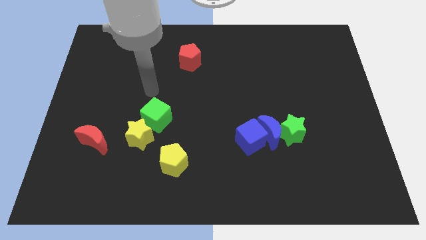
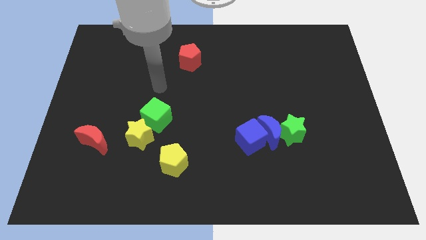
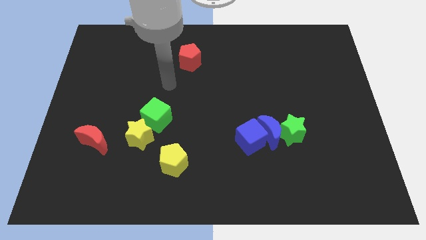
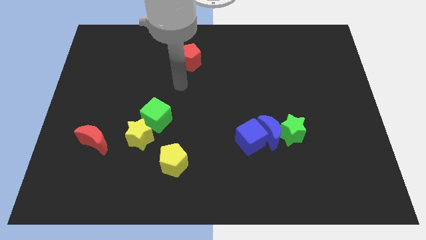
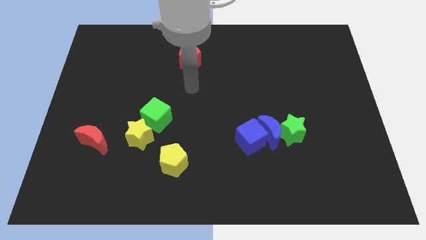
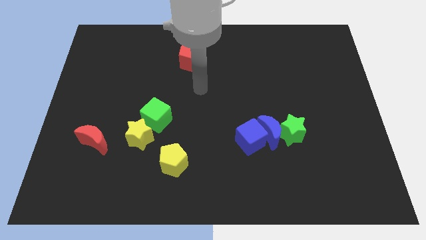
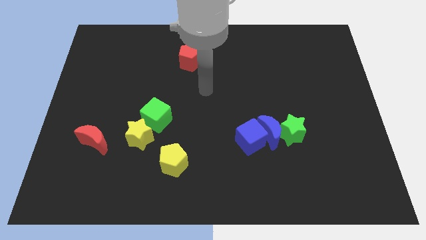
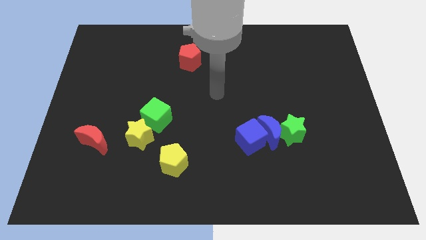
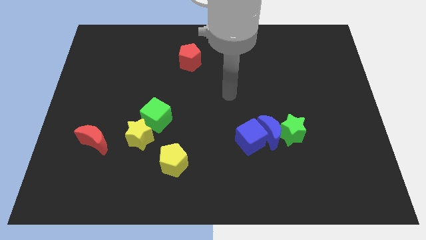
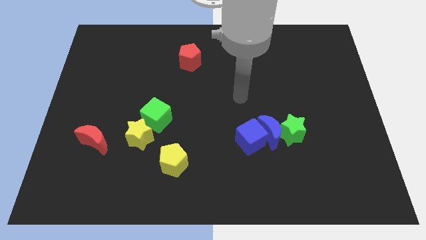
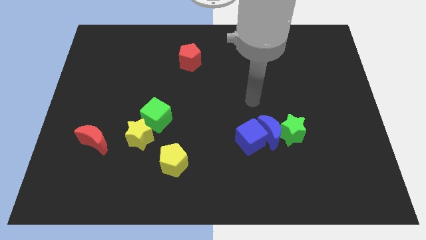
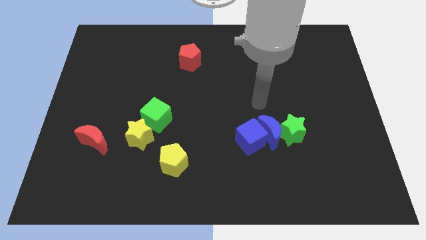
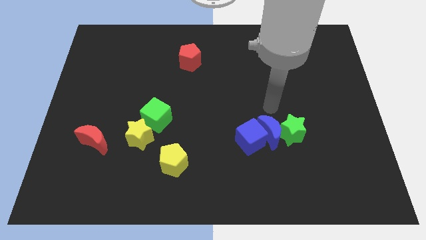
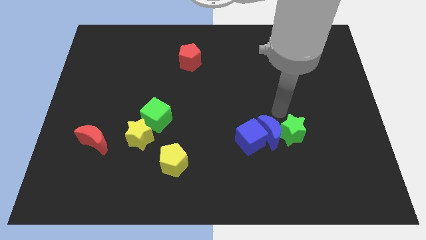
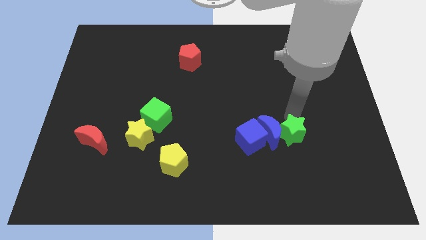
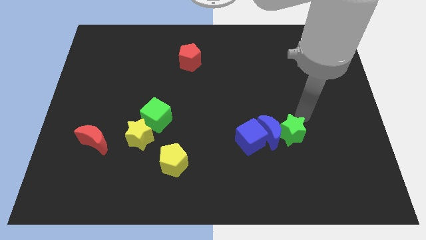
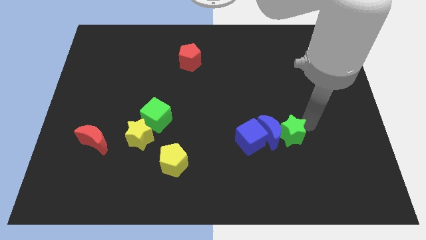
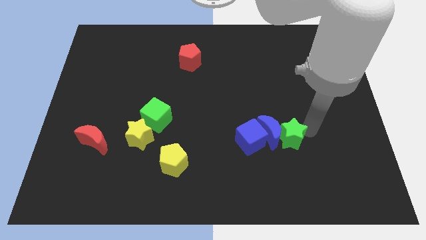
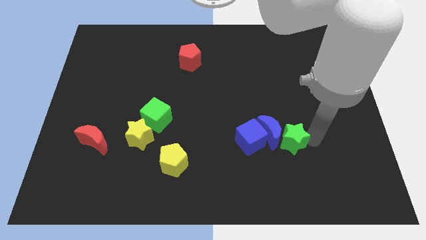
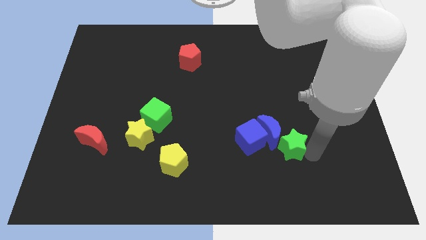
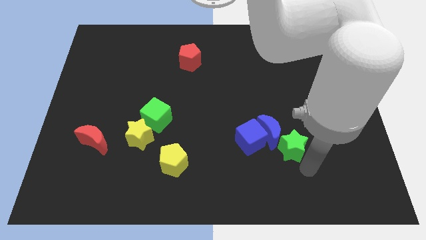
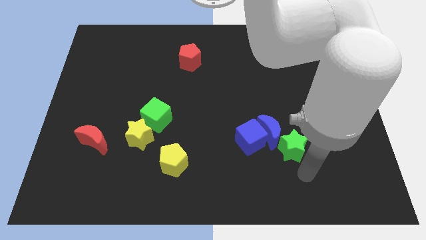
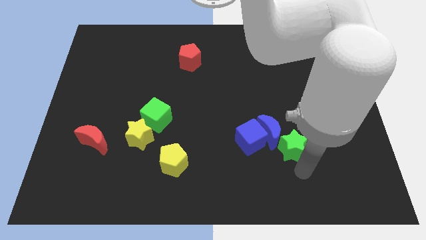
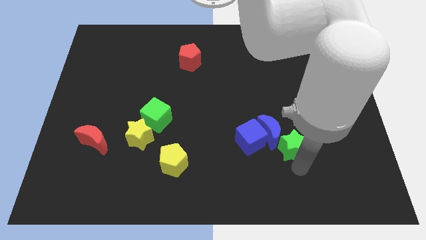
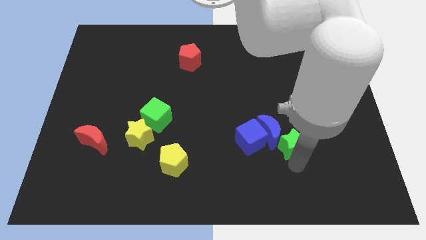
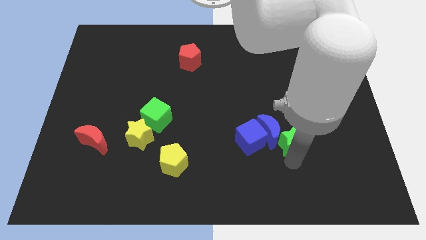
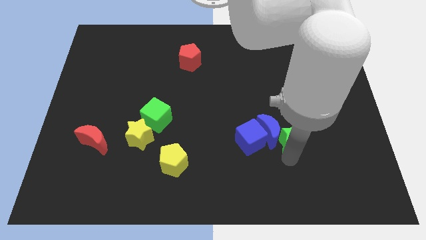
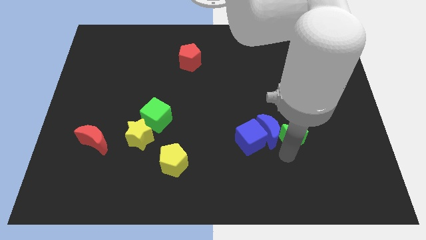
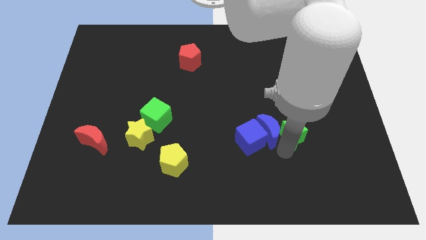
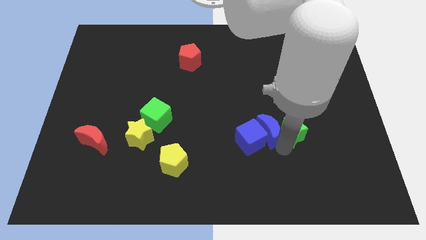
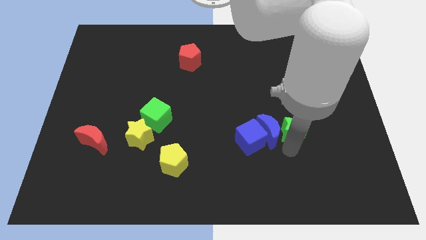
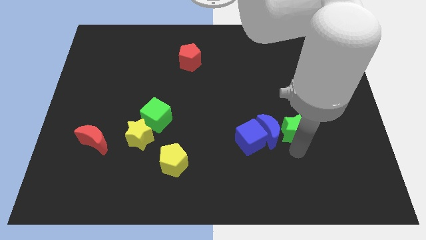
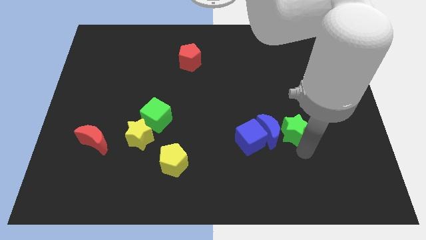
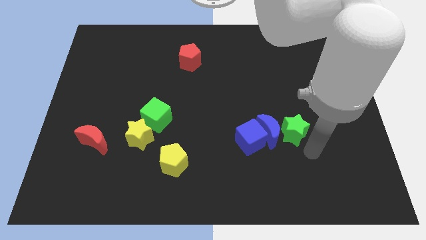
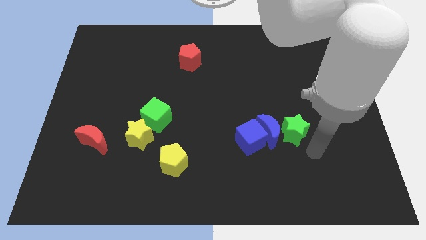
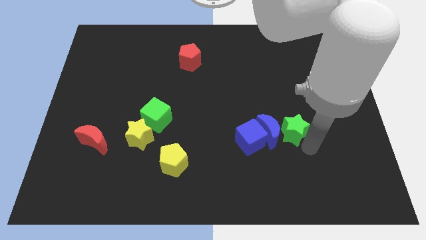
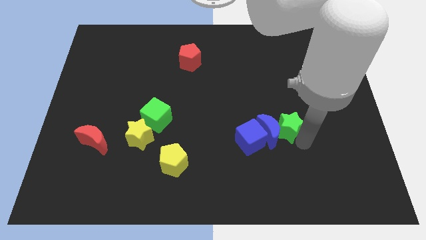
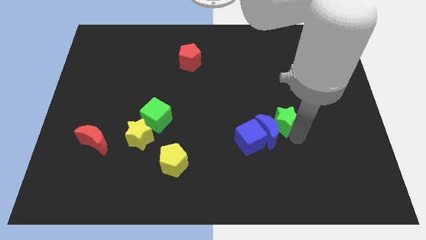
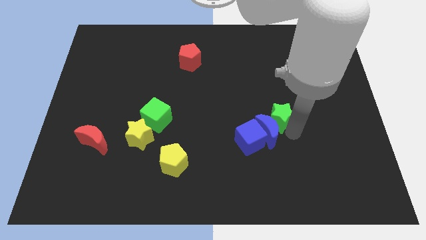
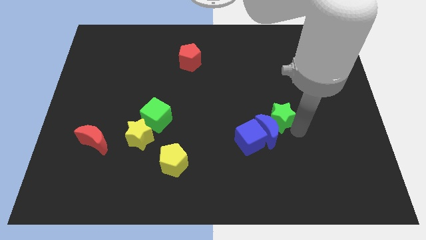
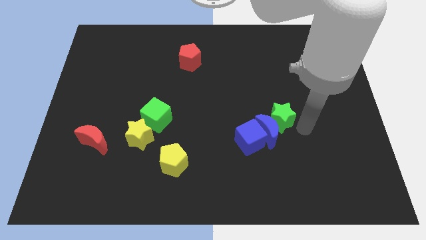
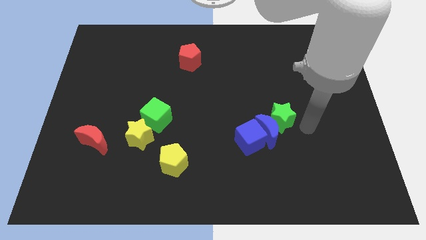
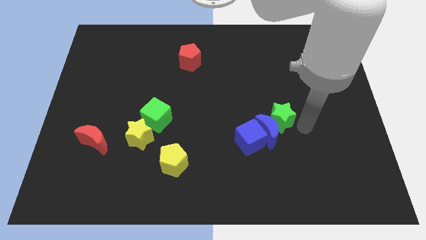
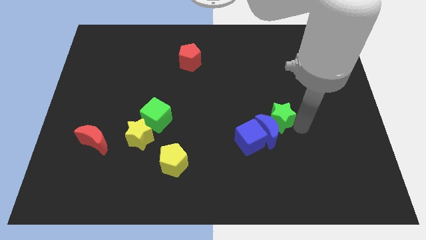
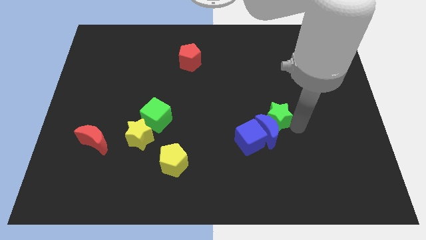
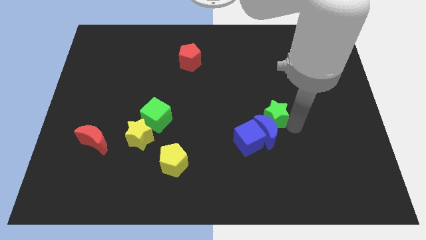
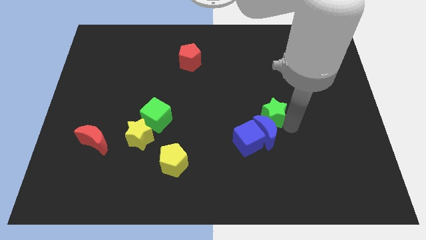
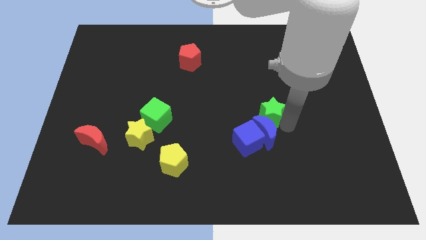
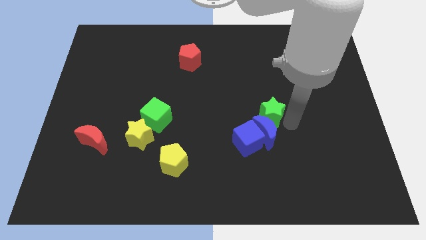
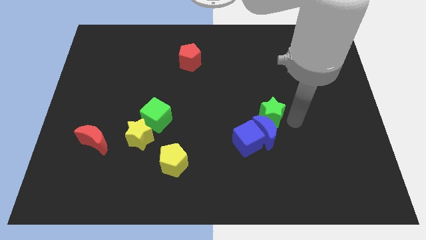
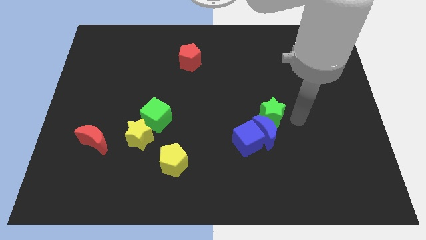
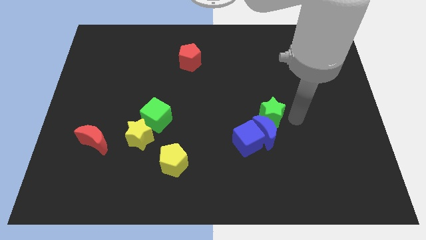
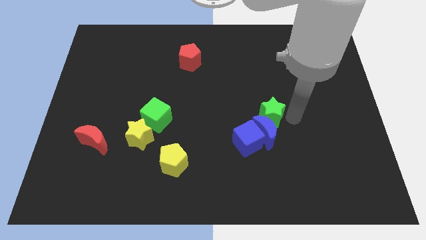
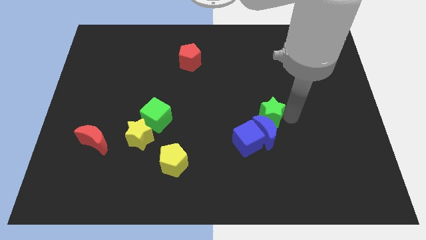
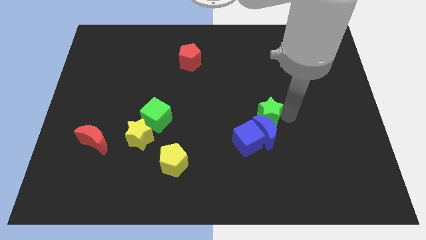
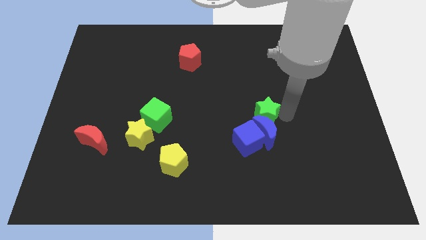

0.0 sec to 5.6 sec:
push the green star to the middle

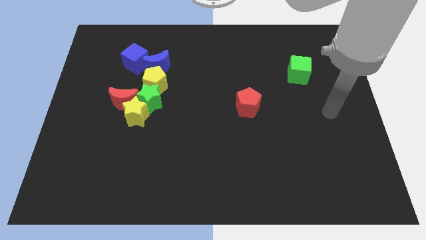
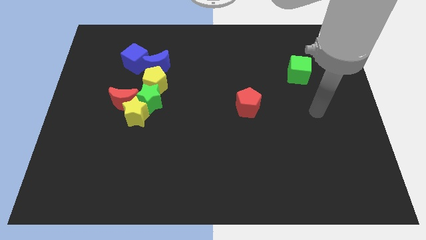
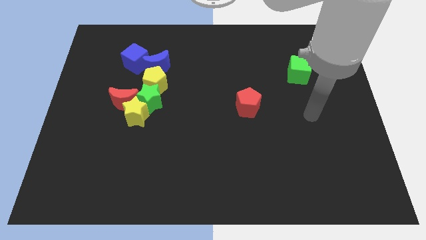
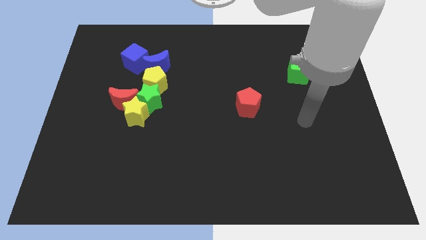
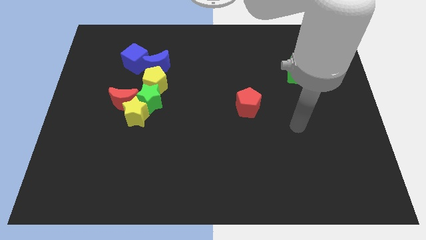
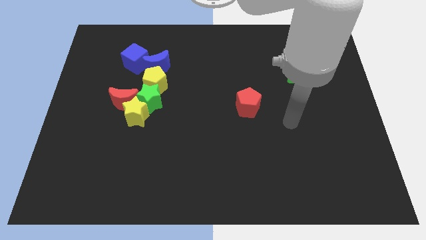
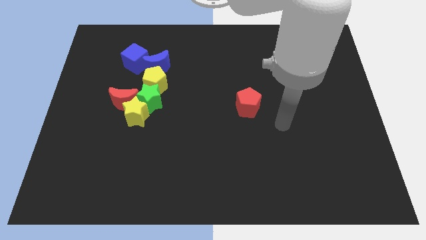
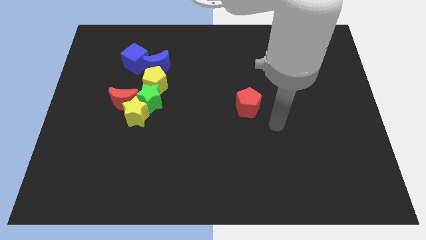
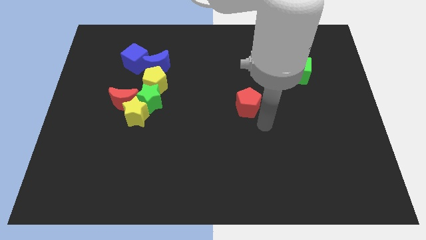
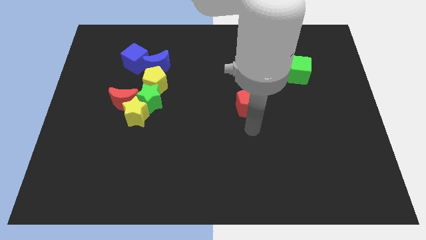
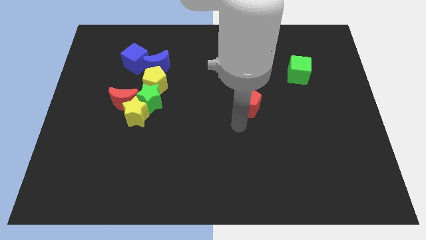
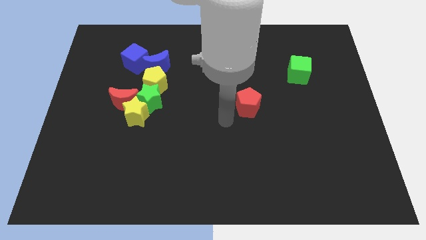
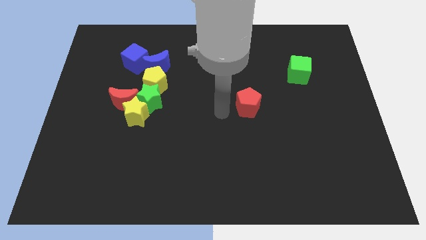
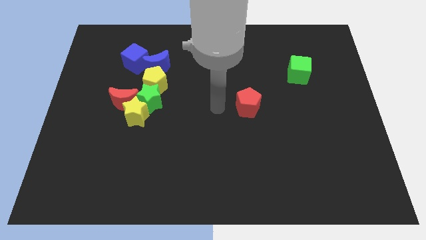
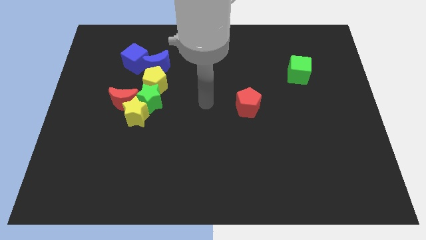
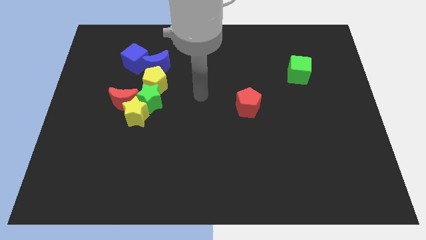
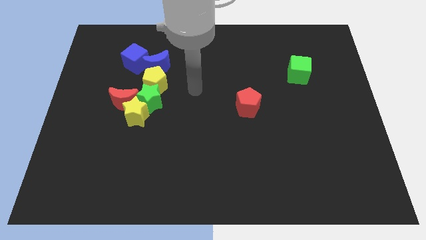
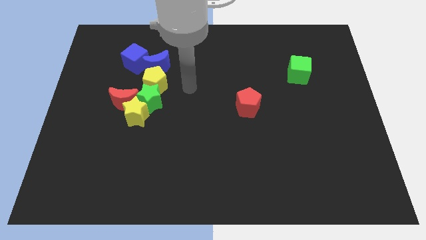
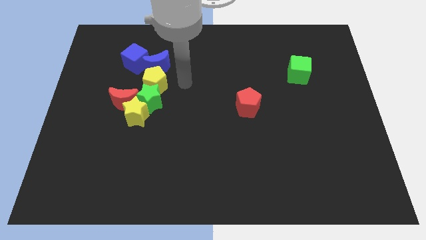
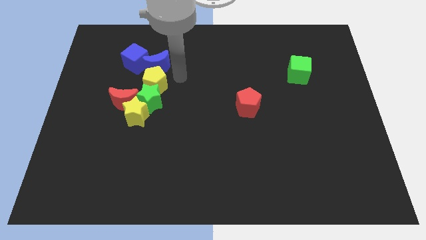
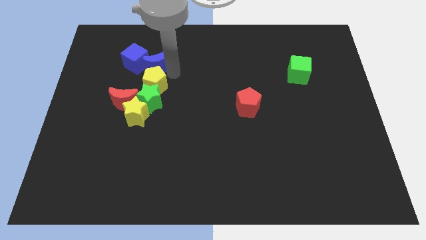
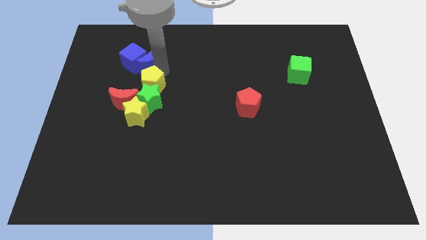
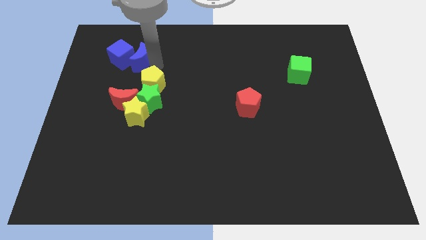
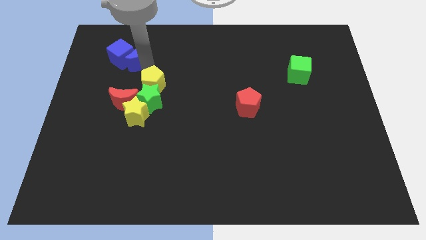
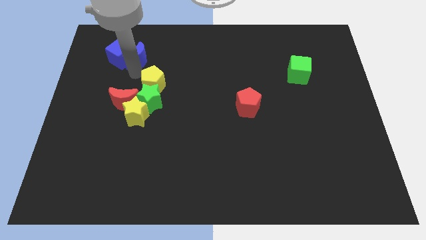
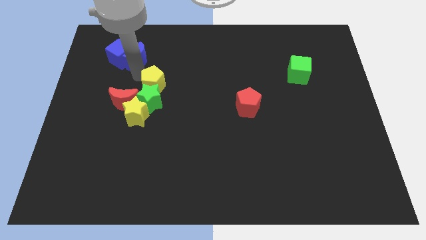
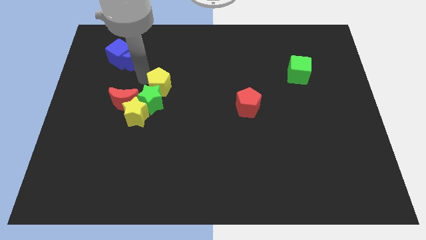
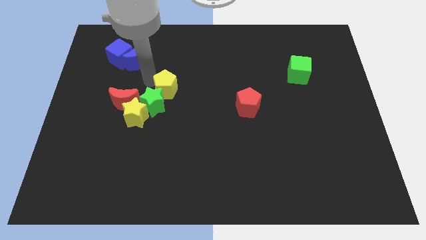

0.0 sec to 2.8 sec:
move the yellow pentagon to the middle of the board
